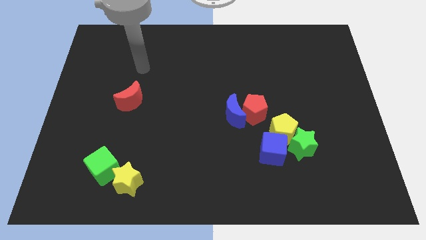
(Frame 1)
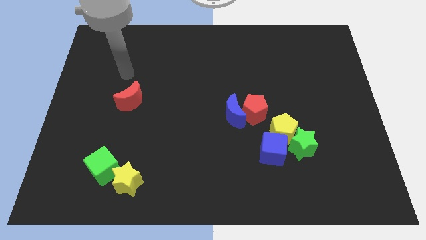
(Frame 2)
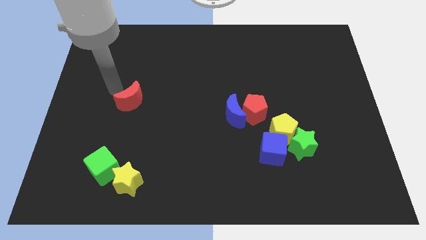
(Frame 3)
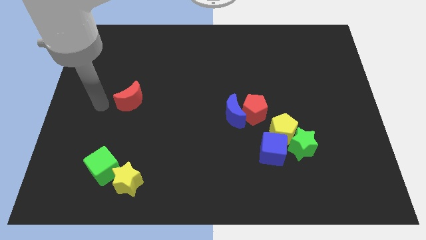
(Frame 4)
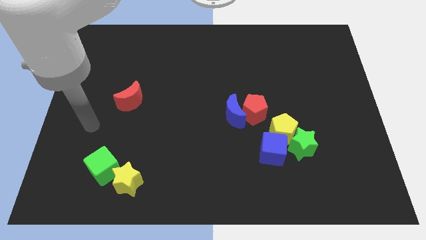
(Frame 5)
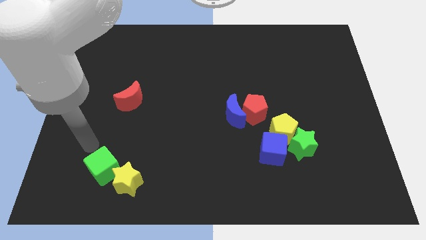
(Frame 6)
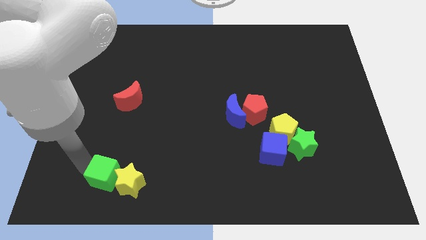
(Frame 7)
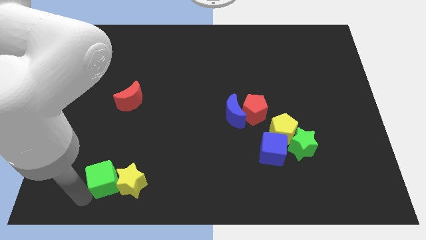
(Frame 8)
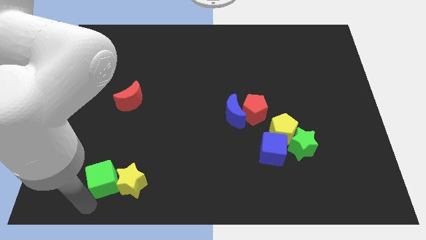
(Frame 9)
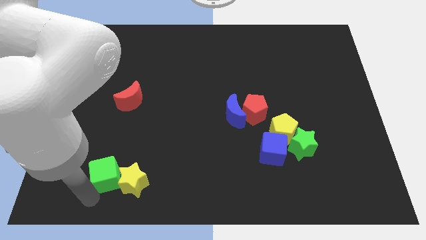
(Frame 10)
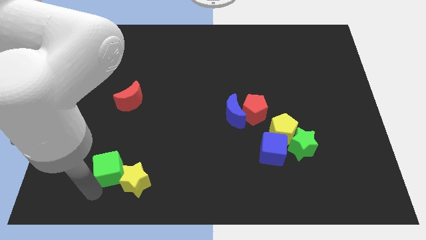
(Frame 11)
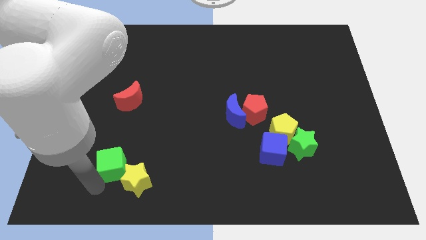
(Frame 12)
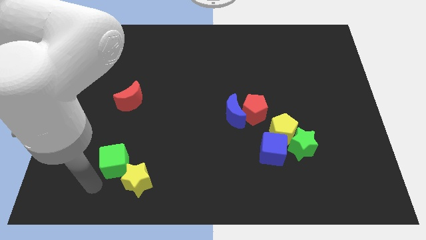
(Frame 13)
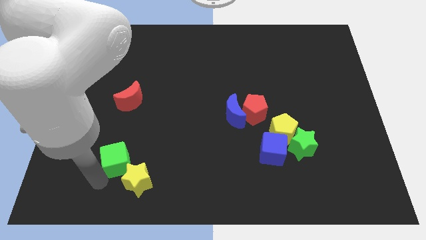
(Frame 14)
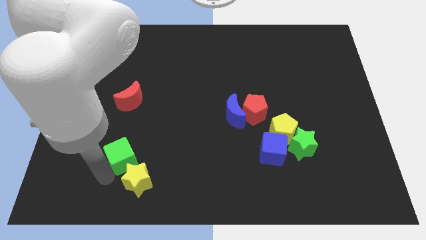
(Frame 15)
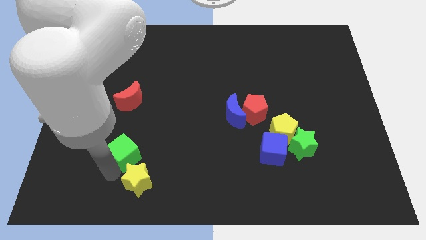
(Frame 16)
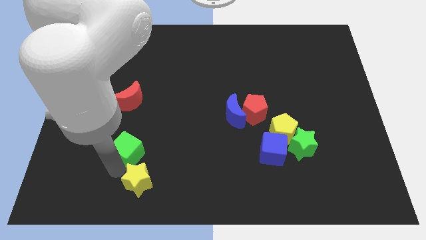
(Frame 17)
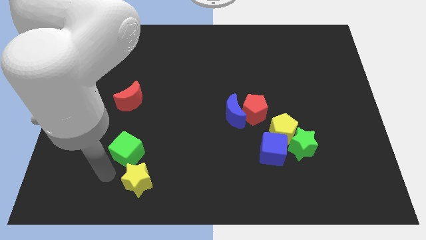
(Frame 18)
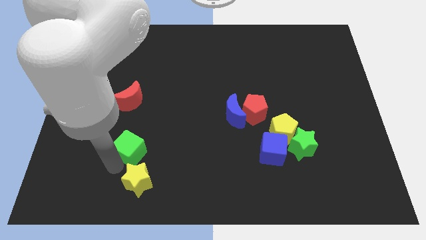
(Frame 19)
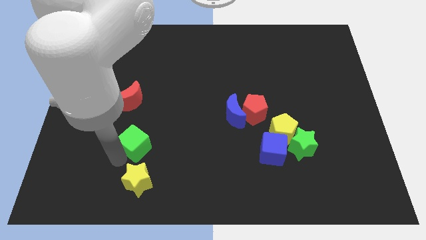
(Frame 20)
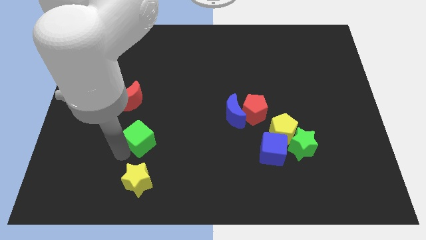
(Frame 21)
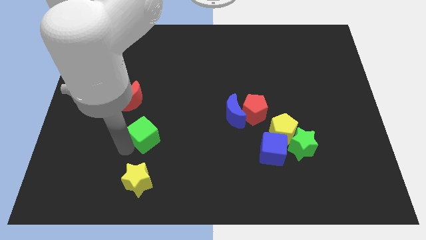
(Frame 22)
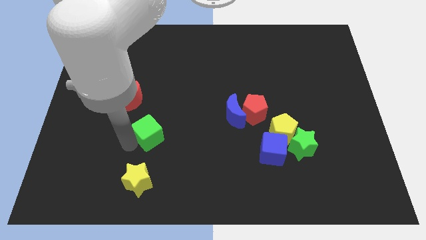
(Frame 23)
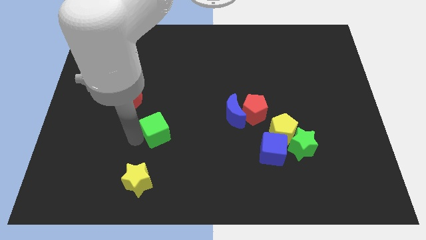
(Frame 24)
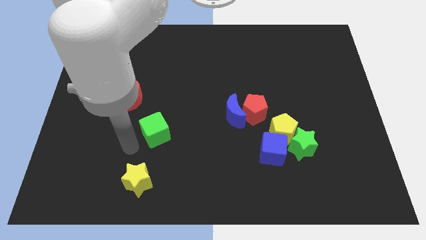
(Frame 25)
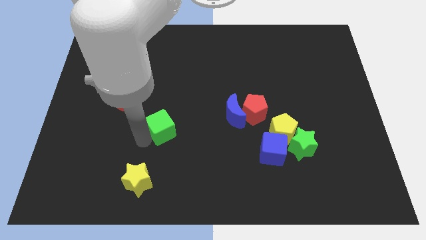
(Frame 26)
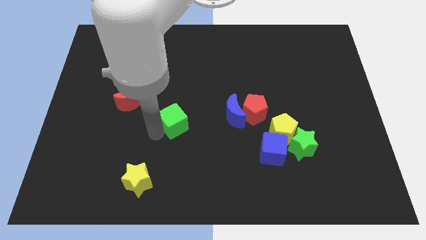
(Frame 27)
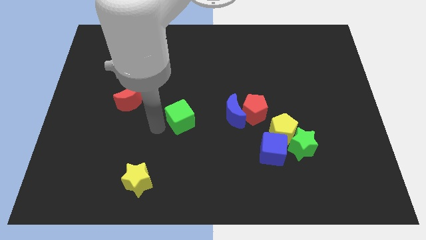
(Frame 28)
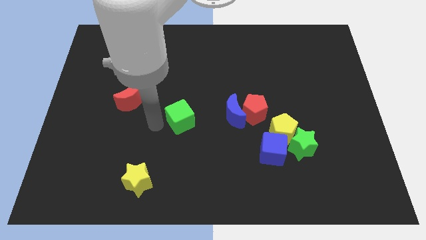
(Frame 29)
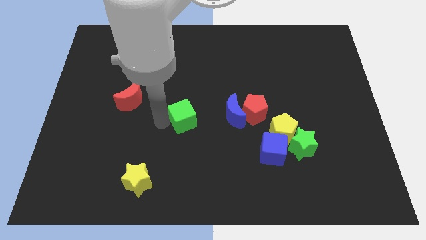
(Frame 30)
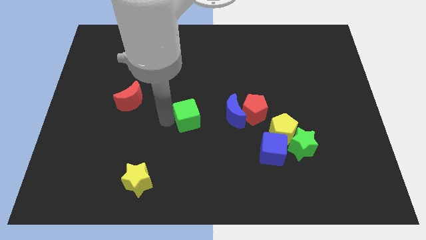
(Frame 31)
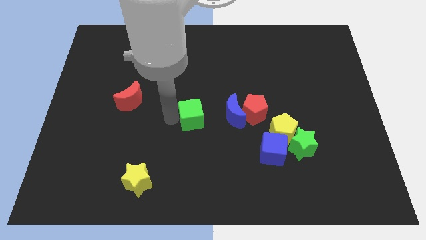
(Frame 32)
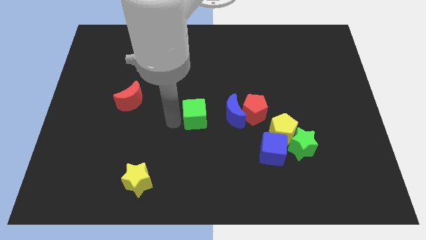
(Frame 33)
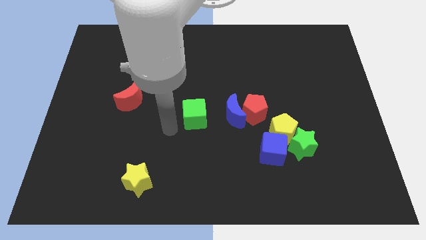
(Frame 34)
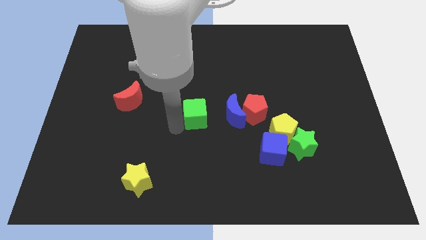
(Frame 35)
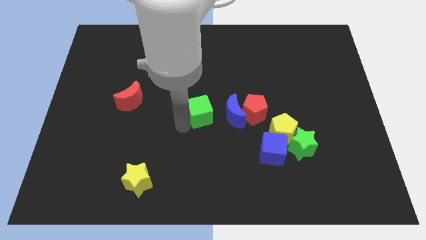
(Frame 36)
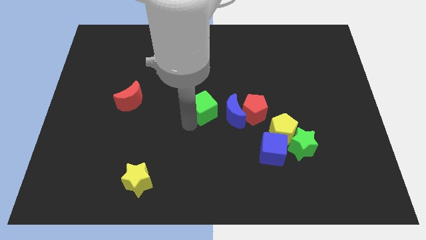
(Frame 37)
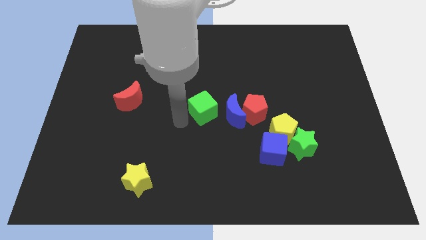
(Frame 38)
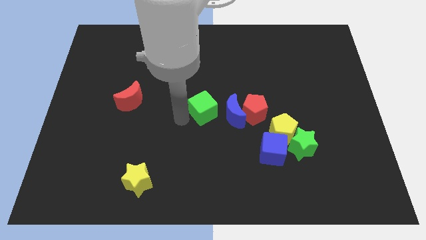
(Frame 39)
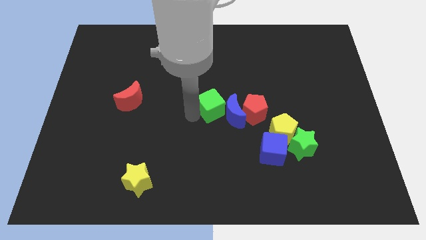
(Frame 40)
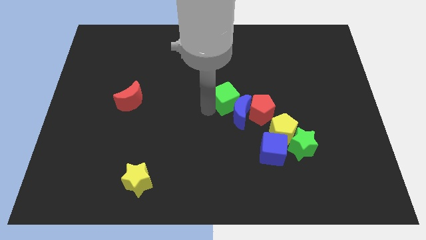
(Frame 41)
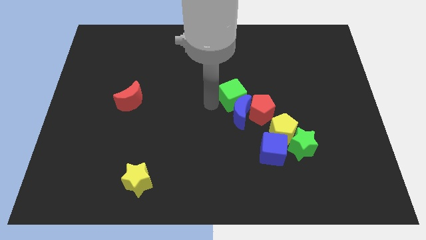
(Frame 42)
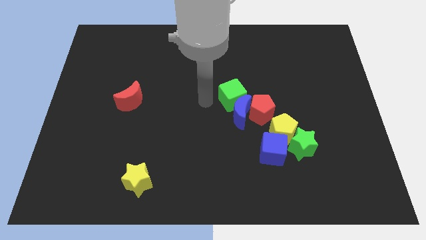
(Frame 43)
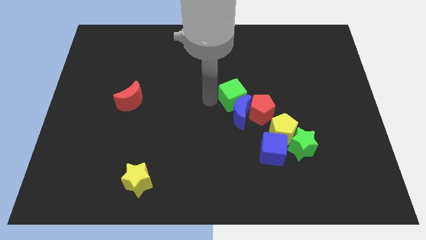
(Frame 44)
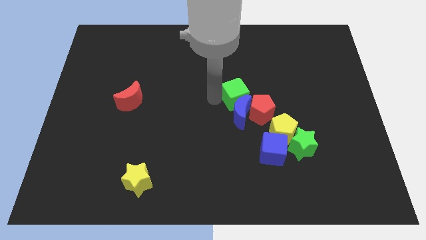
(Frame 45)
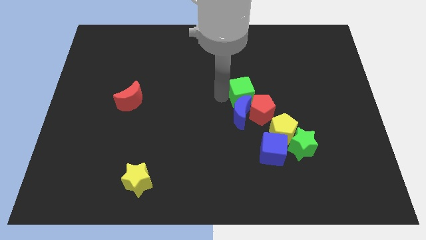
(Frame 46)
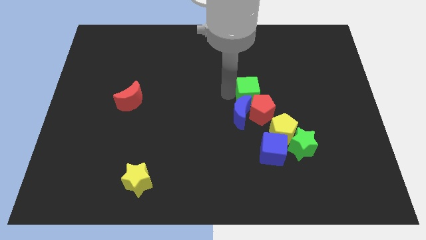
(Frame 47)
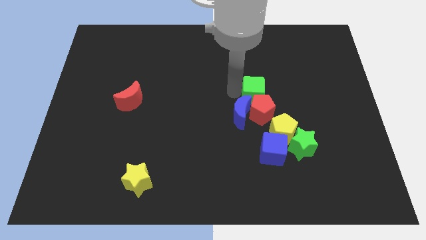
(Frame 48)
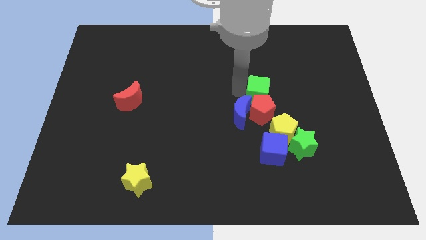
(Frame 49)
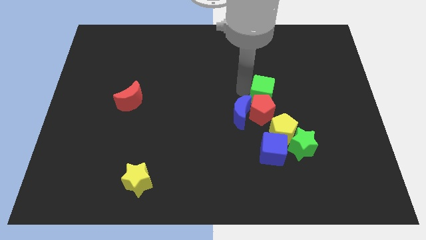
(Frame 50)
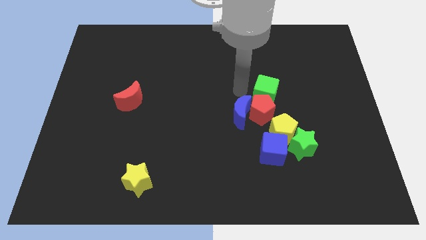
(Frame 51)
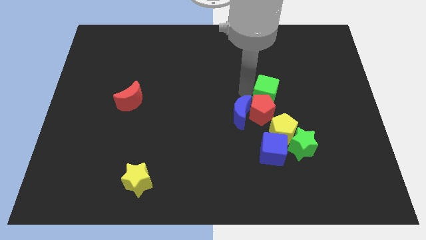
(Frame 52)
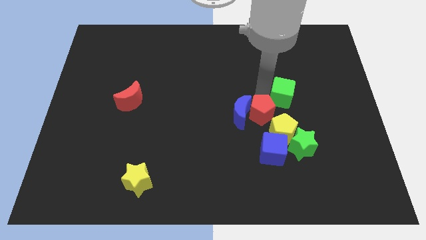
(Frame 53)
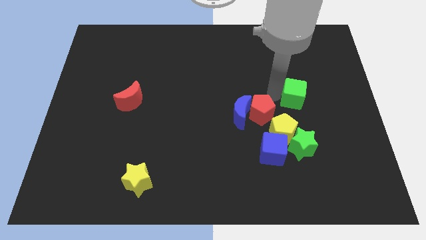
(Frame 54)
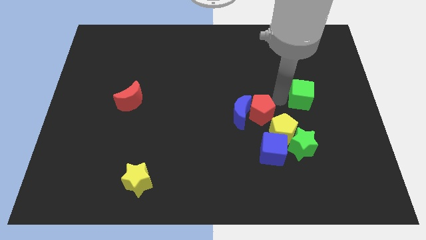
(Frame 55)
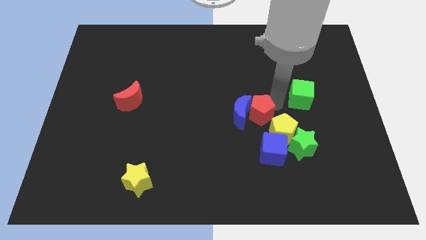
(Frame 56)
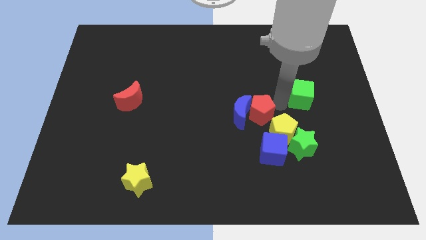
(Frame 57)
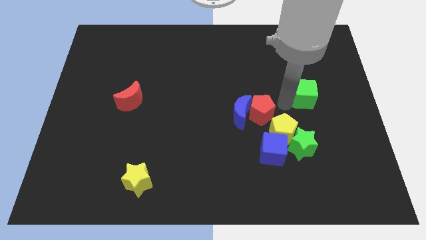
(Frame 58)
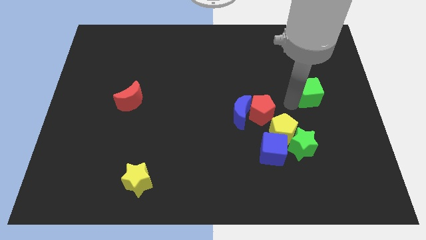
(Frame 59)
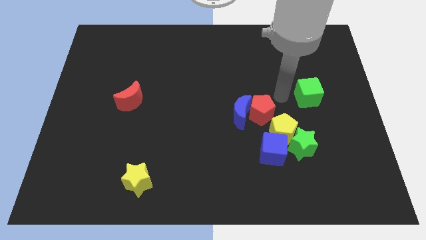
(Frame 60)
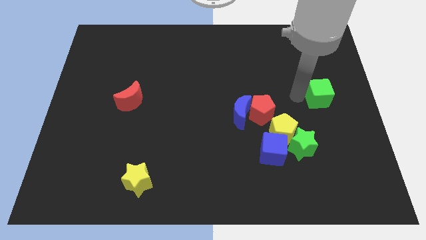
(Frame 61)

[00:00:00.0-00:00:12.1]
slide the green cube to the right side
